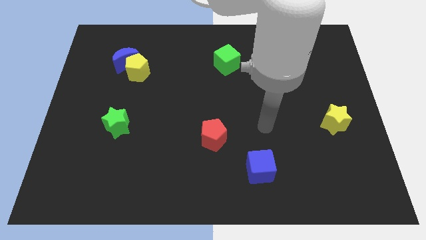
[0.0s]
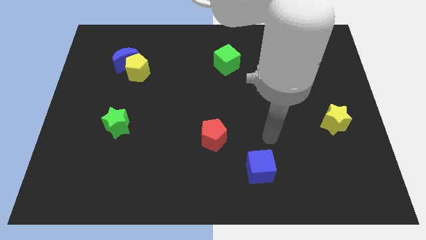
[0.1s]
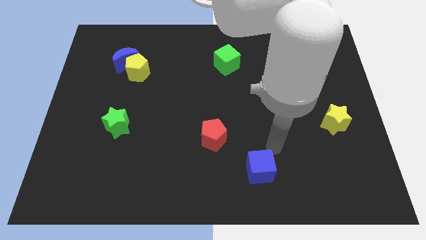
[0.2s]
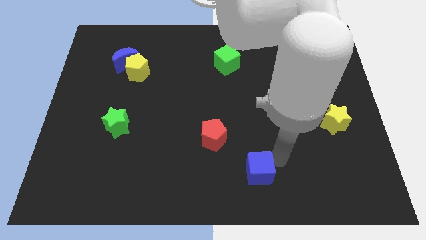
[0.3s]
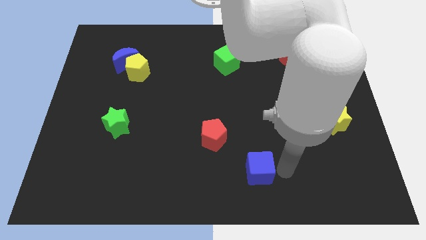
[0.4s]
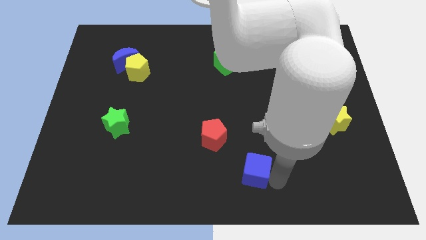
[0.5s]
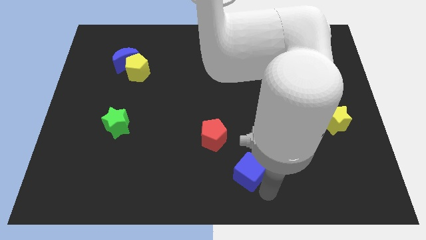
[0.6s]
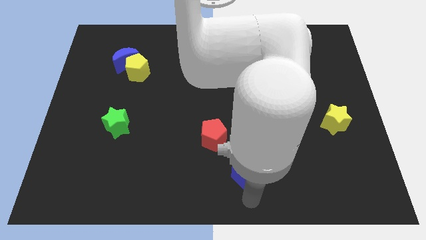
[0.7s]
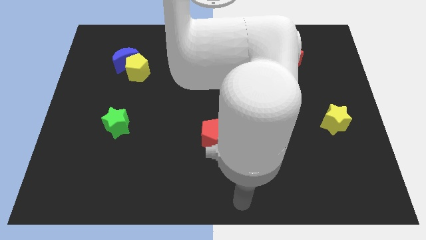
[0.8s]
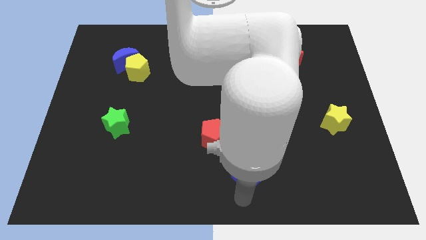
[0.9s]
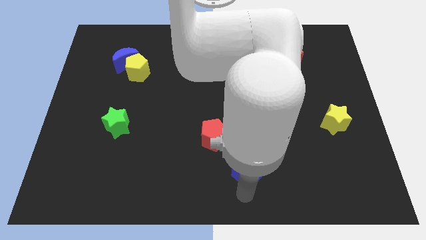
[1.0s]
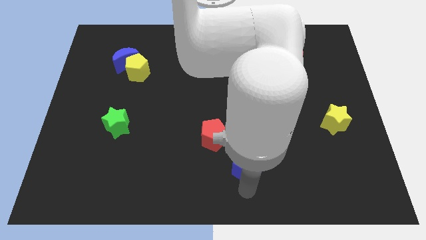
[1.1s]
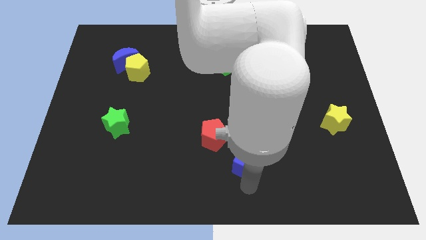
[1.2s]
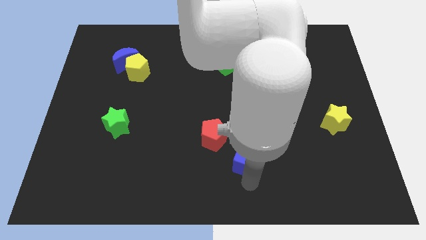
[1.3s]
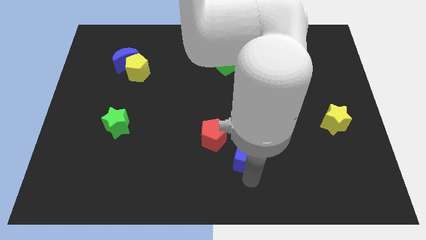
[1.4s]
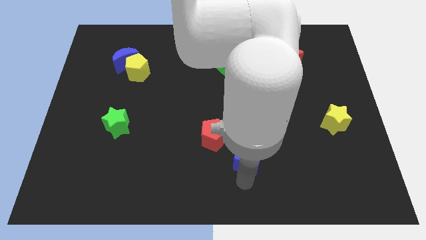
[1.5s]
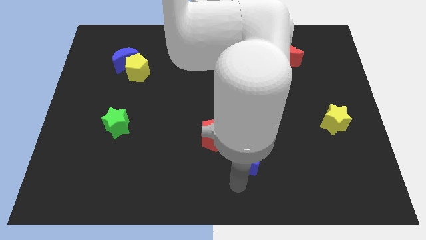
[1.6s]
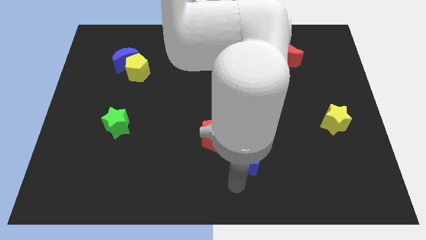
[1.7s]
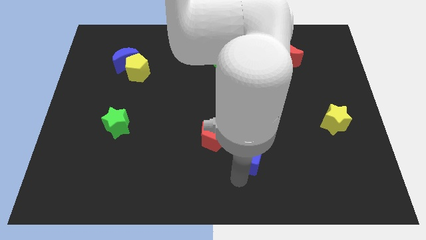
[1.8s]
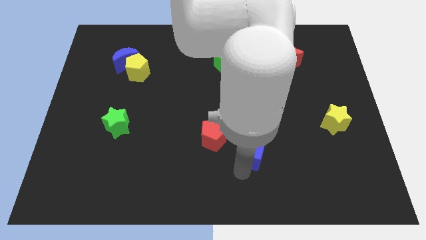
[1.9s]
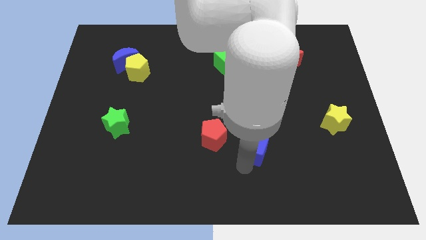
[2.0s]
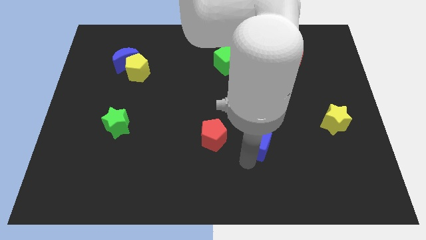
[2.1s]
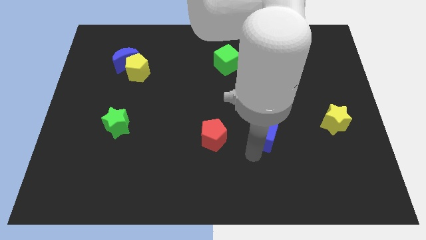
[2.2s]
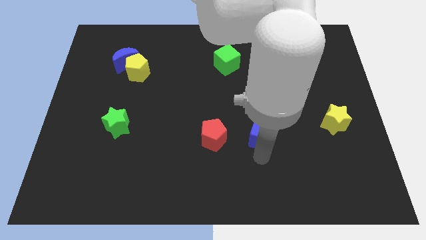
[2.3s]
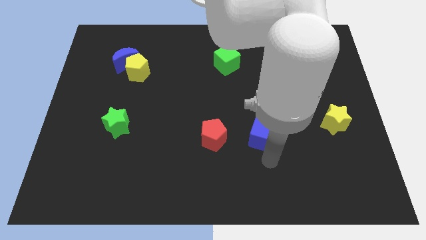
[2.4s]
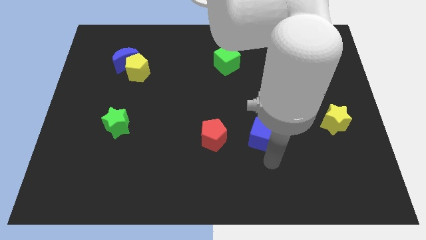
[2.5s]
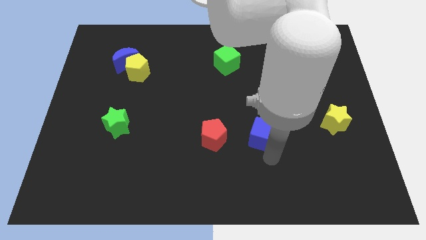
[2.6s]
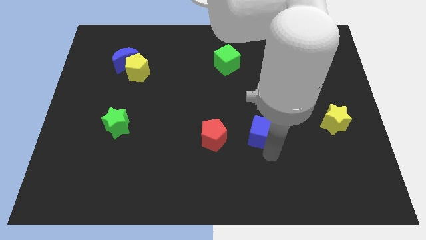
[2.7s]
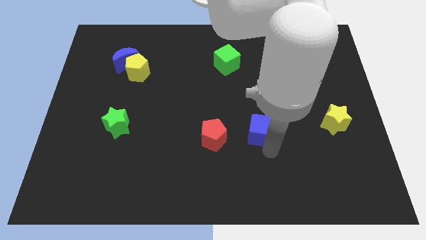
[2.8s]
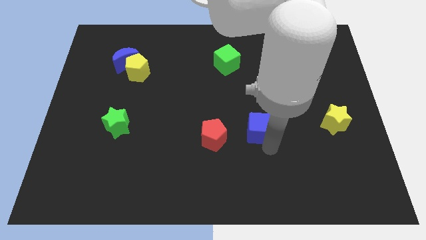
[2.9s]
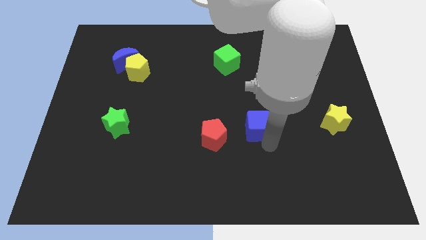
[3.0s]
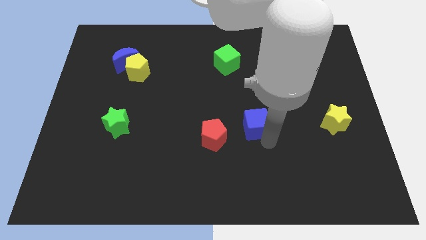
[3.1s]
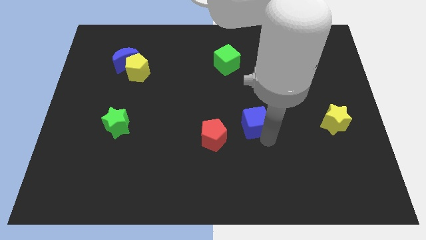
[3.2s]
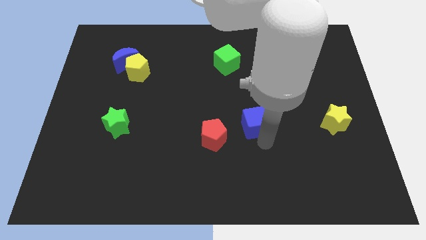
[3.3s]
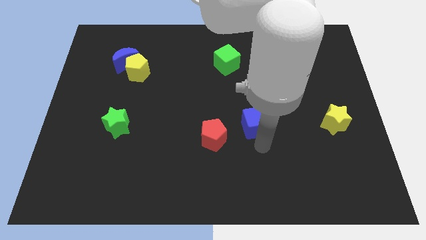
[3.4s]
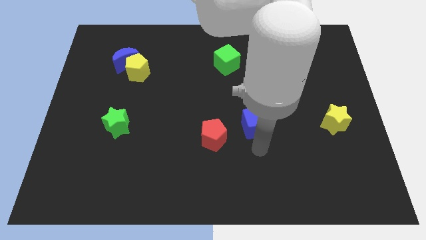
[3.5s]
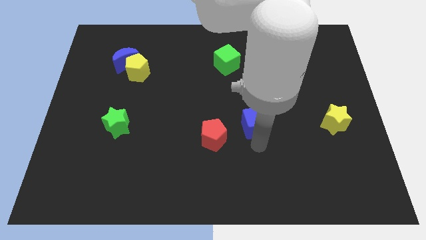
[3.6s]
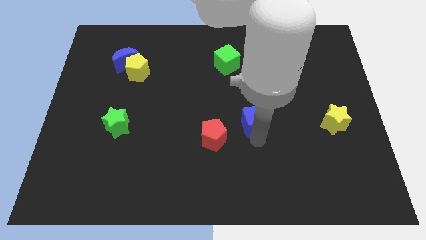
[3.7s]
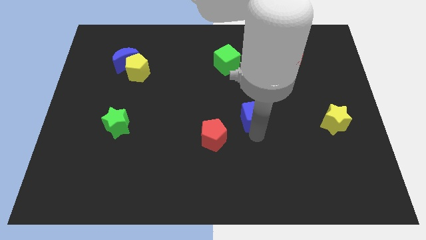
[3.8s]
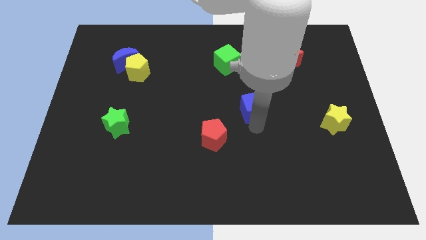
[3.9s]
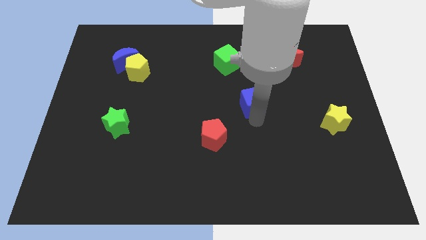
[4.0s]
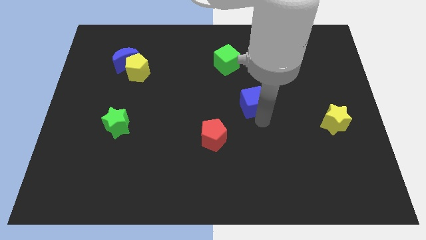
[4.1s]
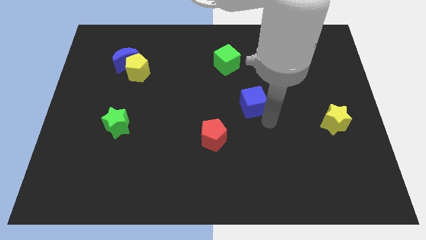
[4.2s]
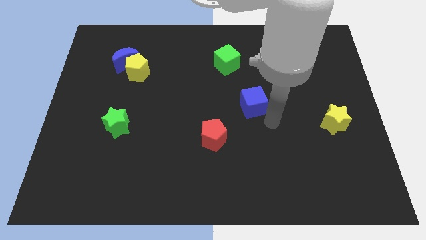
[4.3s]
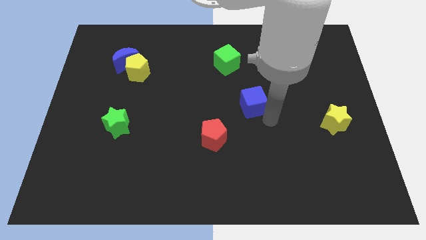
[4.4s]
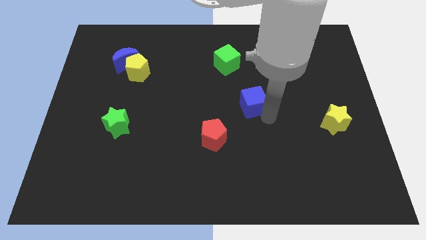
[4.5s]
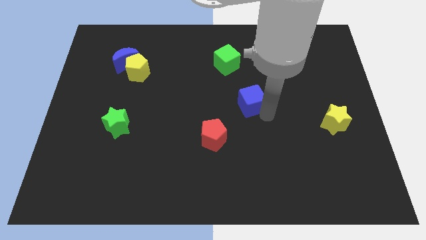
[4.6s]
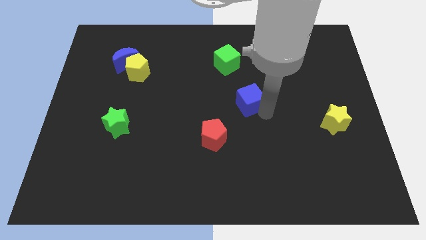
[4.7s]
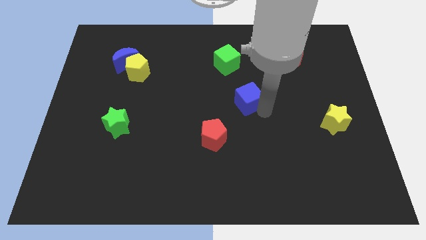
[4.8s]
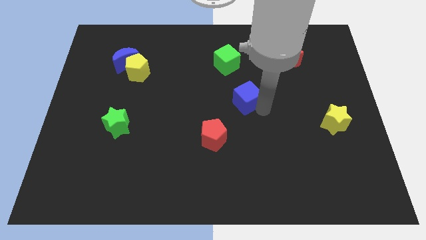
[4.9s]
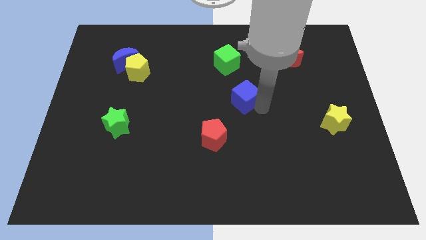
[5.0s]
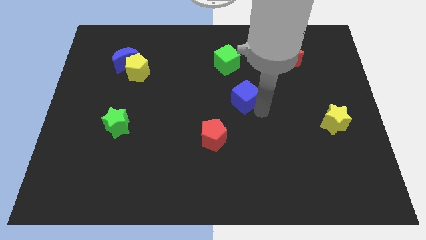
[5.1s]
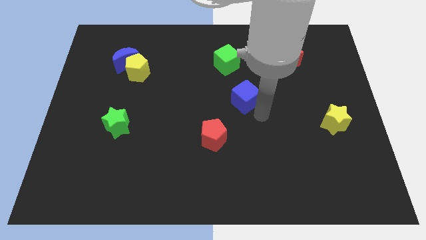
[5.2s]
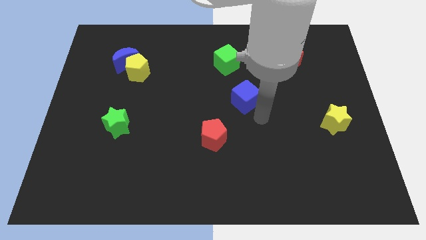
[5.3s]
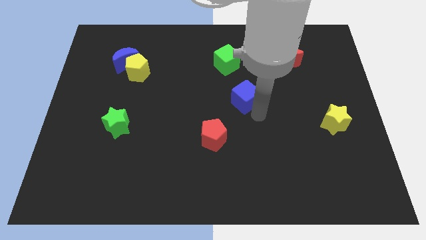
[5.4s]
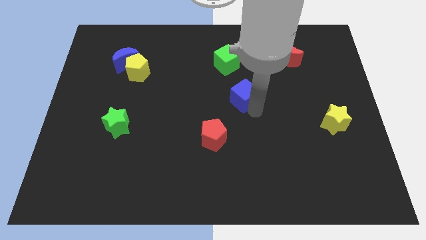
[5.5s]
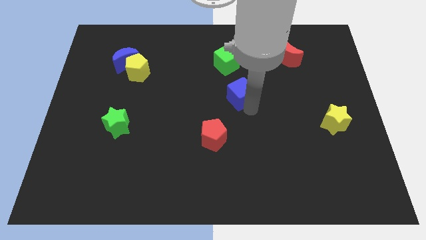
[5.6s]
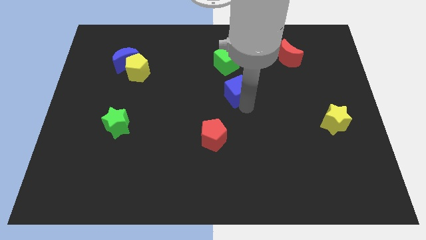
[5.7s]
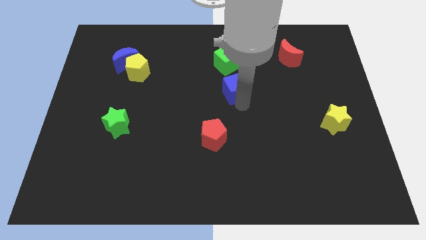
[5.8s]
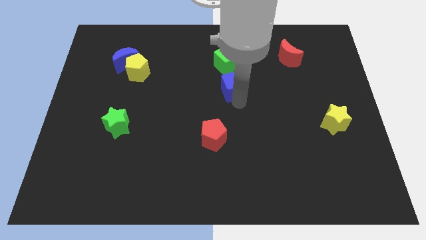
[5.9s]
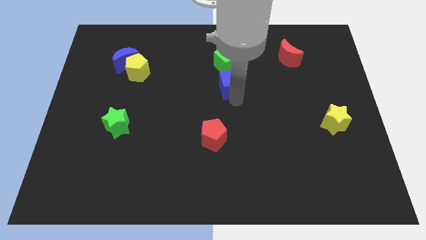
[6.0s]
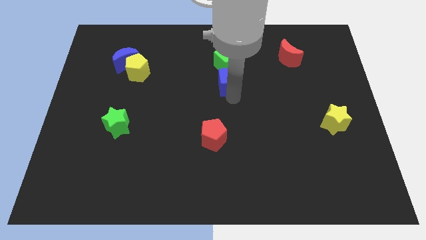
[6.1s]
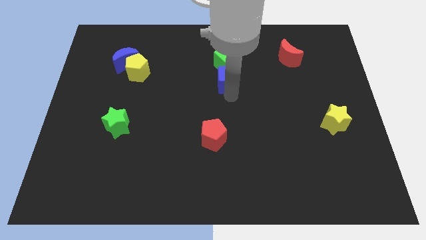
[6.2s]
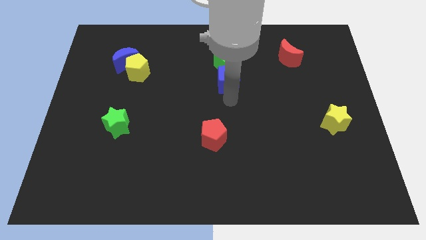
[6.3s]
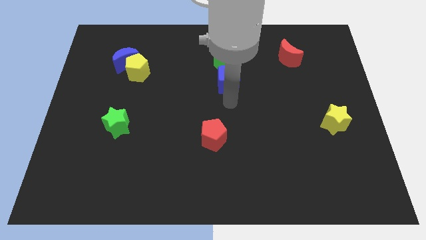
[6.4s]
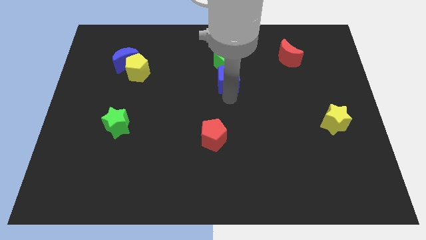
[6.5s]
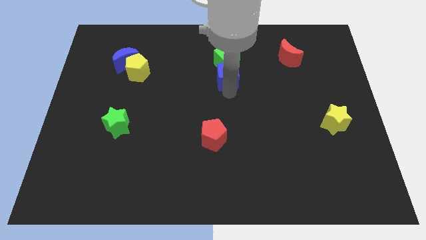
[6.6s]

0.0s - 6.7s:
slide the blue cube next to the green cube

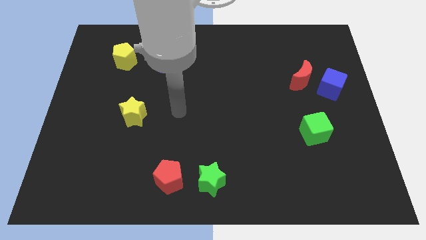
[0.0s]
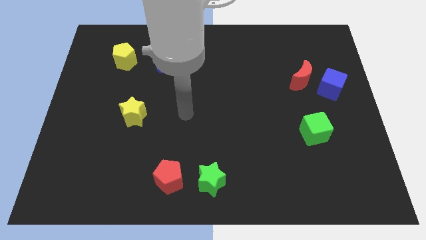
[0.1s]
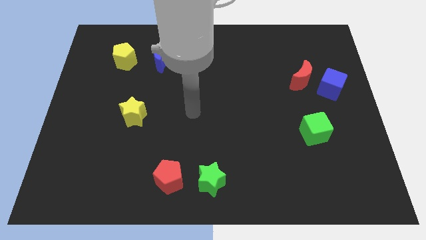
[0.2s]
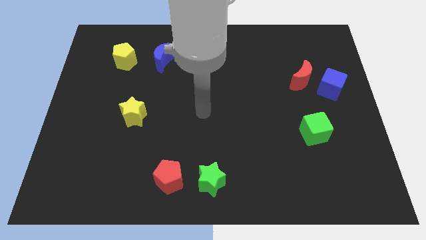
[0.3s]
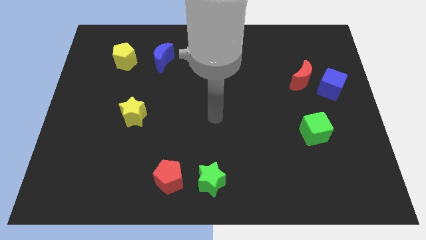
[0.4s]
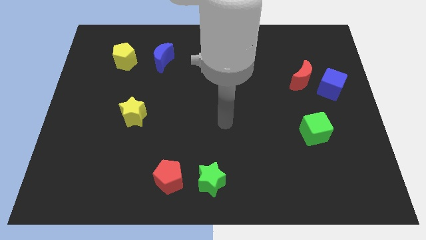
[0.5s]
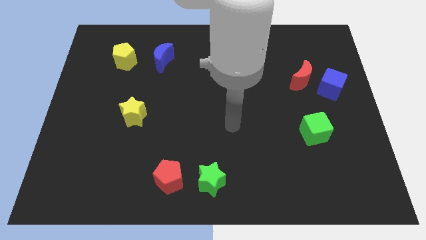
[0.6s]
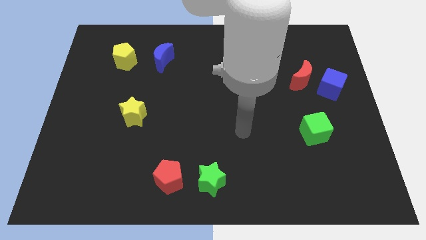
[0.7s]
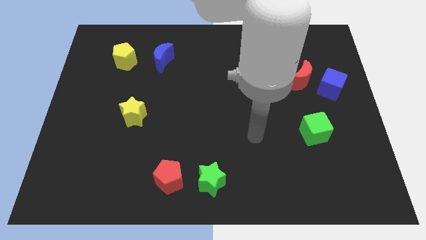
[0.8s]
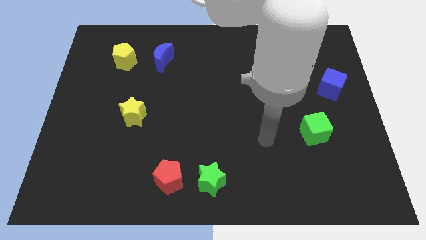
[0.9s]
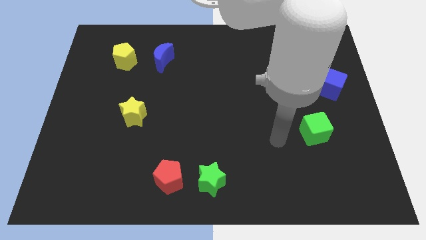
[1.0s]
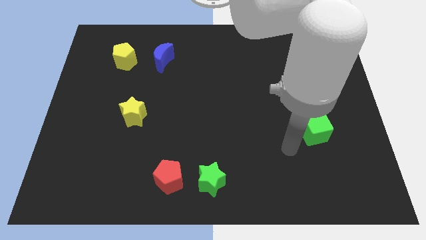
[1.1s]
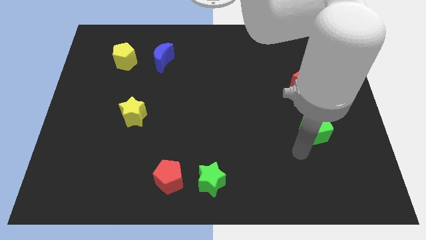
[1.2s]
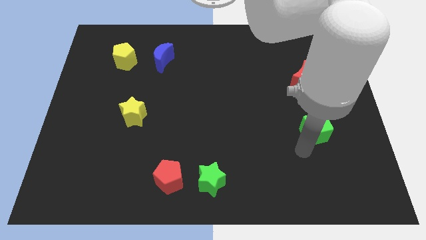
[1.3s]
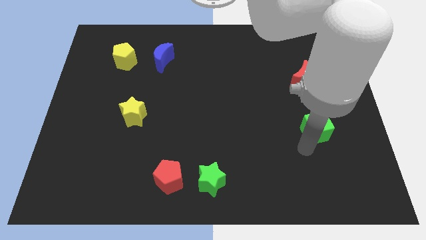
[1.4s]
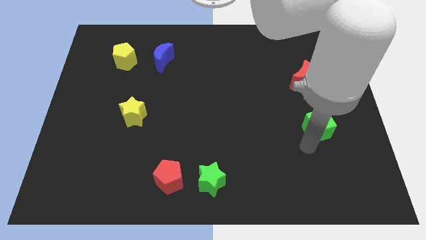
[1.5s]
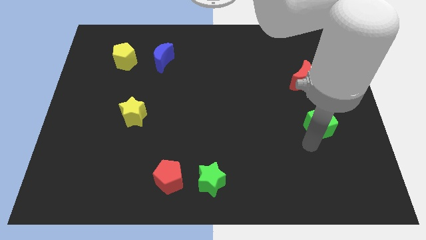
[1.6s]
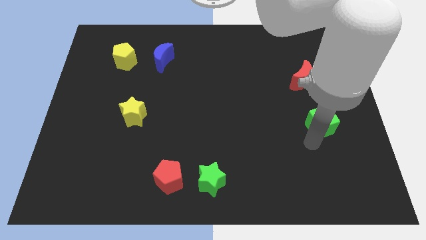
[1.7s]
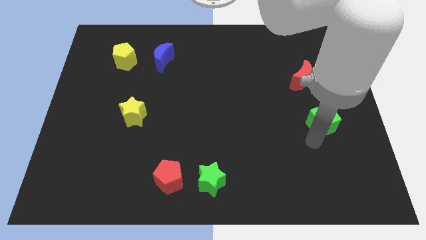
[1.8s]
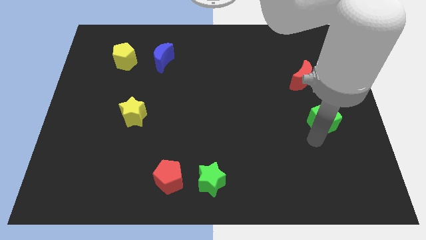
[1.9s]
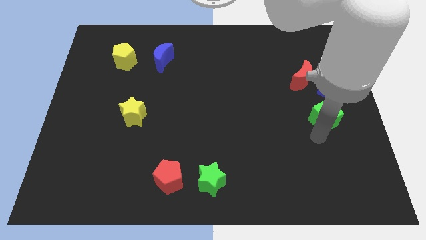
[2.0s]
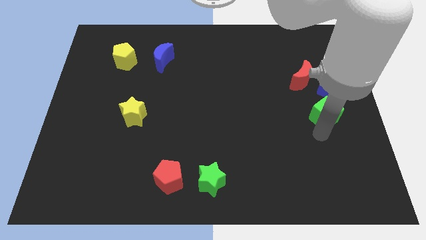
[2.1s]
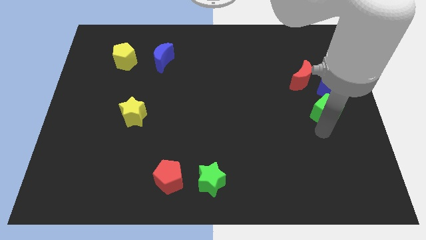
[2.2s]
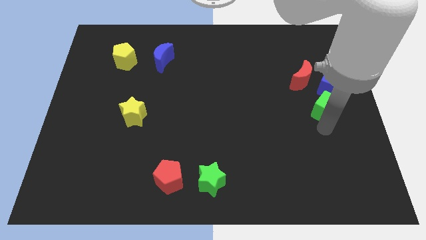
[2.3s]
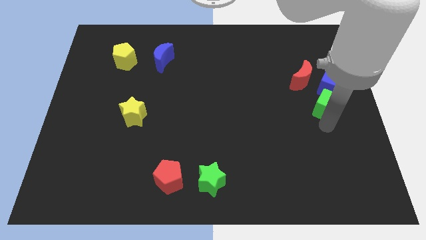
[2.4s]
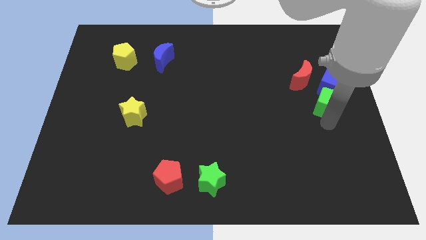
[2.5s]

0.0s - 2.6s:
put the green cube next to the blue cube
